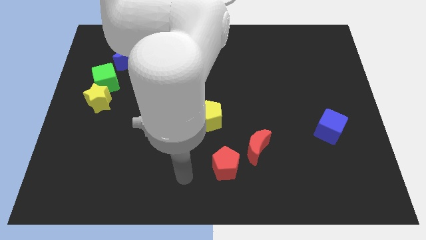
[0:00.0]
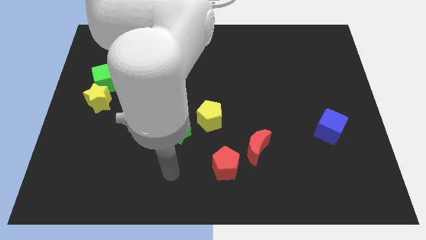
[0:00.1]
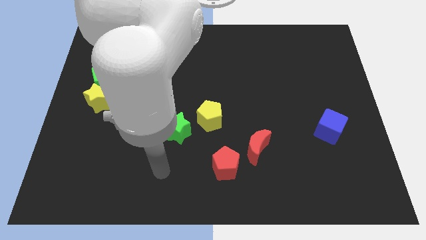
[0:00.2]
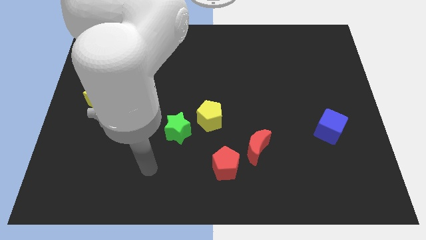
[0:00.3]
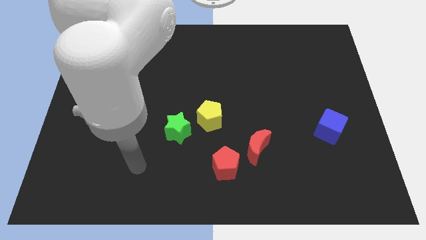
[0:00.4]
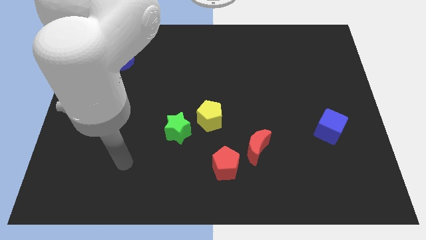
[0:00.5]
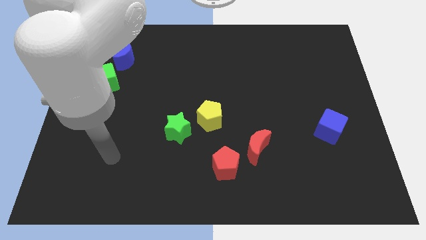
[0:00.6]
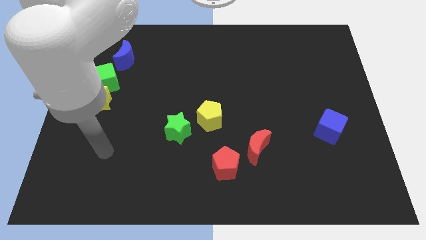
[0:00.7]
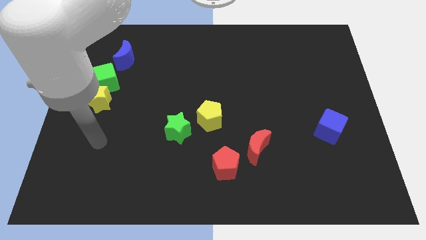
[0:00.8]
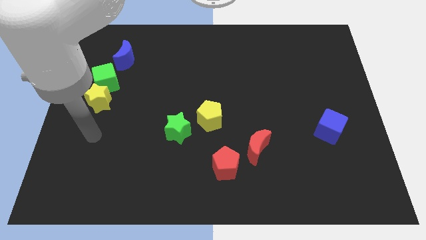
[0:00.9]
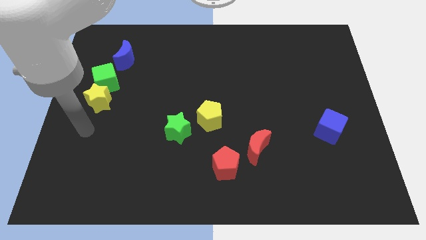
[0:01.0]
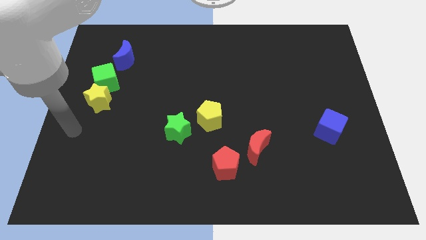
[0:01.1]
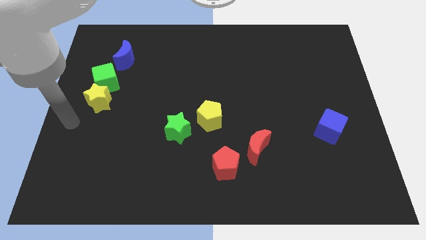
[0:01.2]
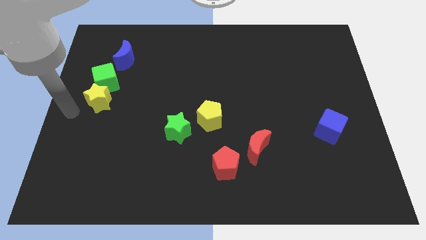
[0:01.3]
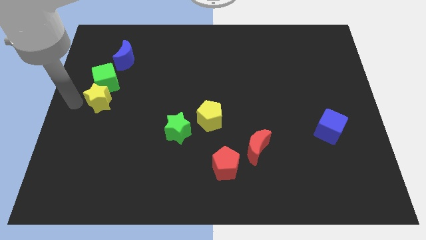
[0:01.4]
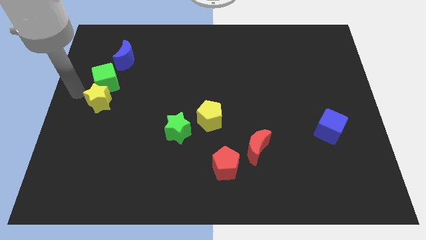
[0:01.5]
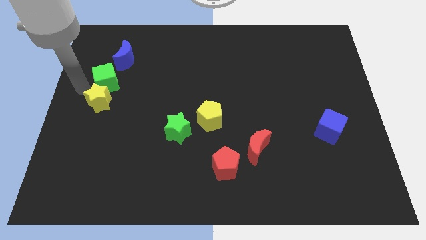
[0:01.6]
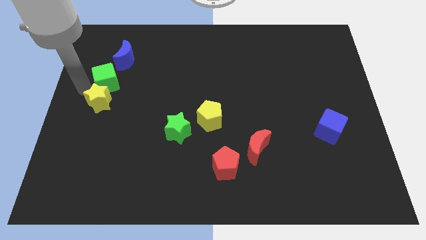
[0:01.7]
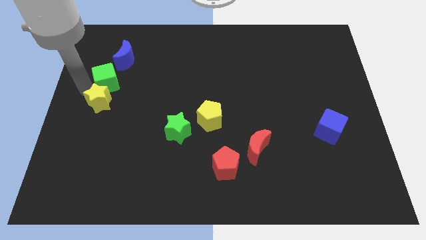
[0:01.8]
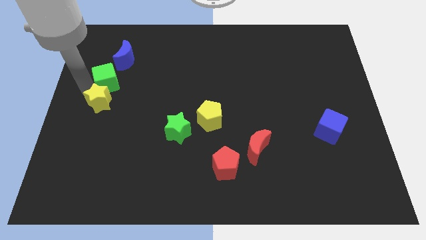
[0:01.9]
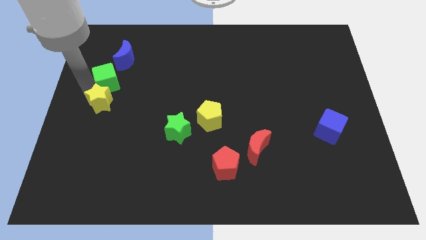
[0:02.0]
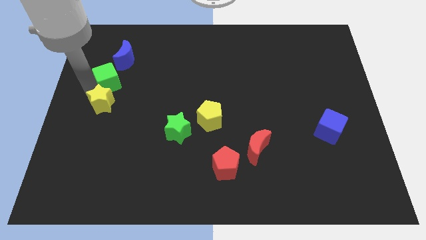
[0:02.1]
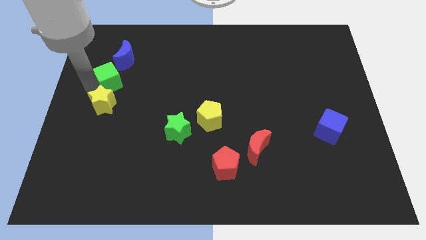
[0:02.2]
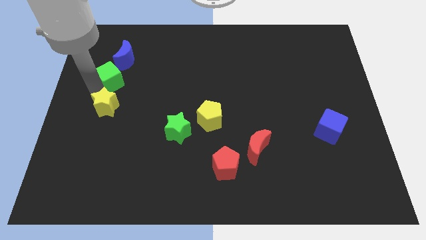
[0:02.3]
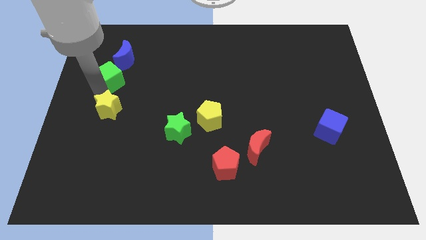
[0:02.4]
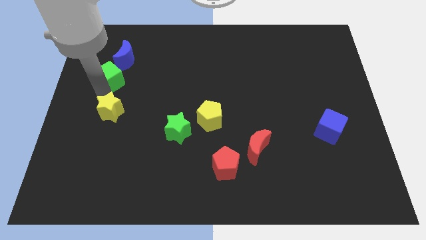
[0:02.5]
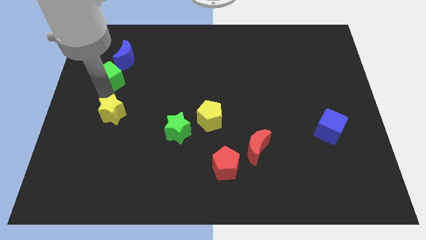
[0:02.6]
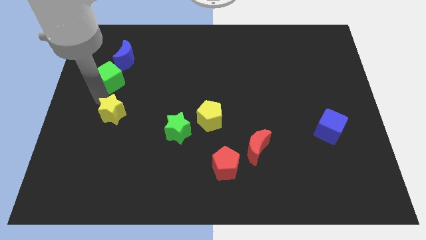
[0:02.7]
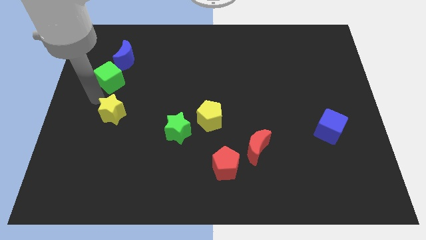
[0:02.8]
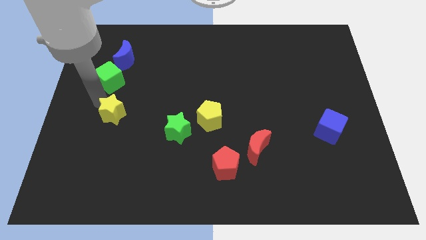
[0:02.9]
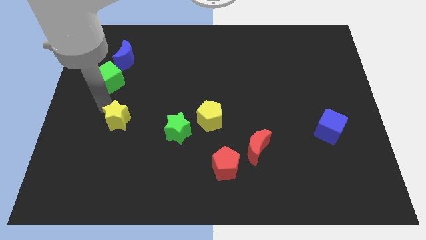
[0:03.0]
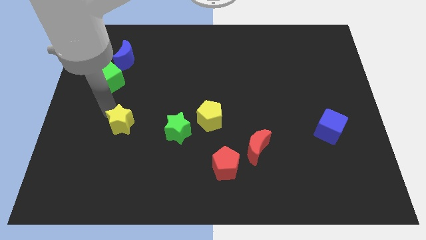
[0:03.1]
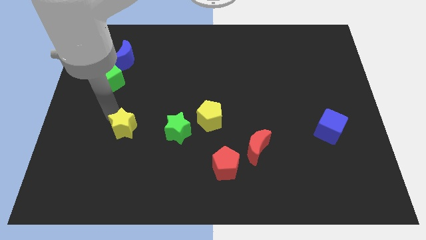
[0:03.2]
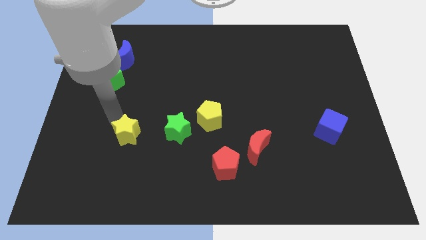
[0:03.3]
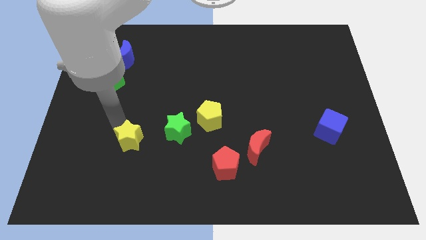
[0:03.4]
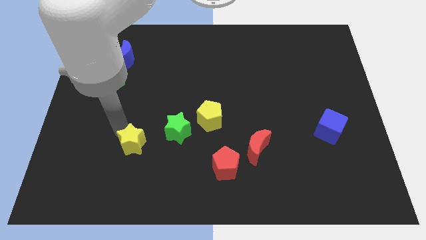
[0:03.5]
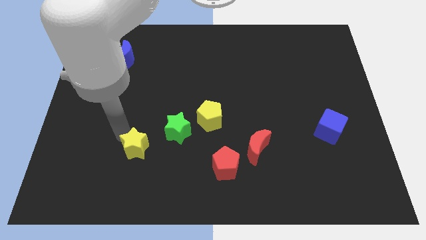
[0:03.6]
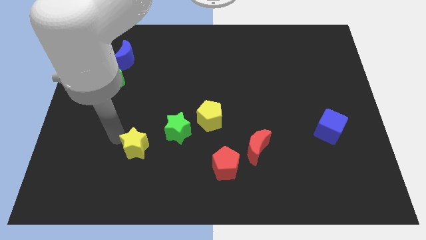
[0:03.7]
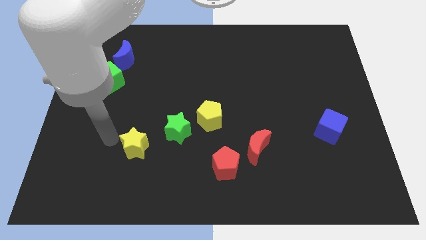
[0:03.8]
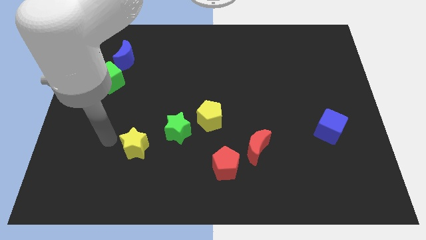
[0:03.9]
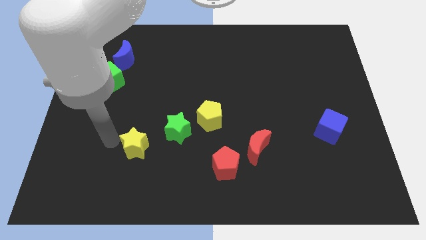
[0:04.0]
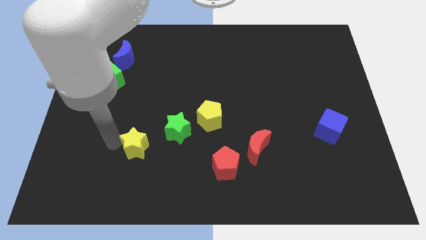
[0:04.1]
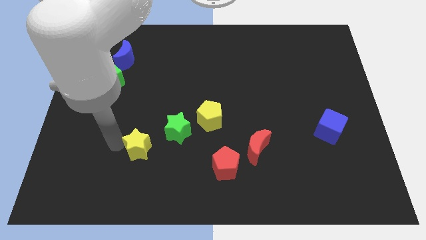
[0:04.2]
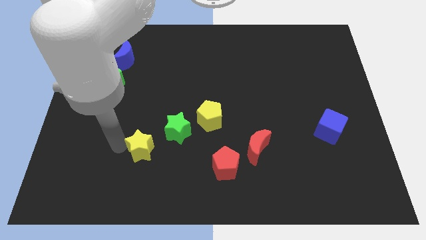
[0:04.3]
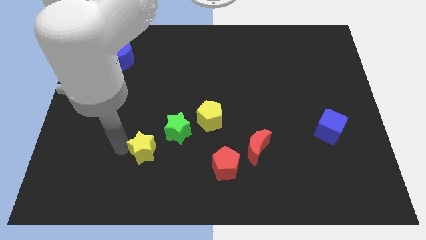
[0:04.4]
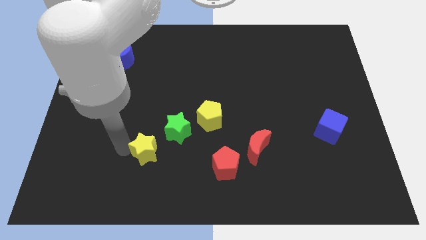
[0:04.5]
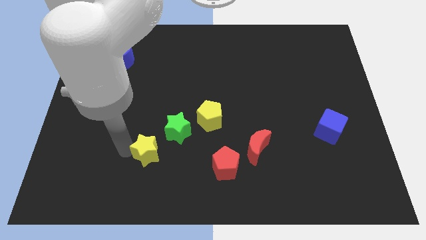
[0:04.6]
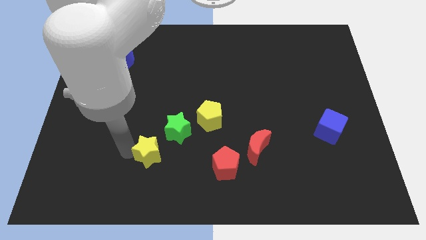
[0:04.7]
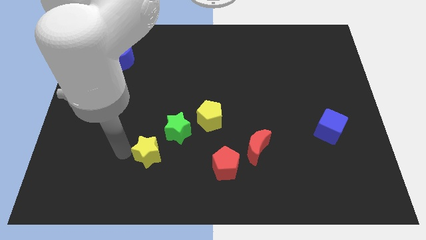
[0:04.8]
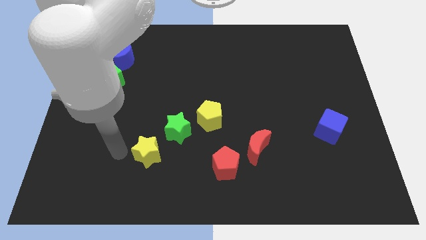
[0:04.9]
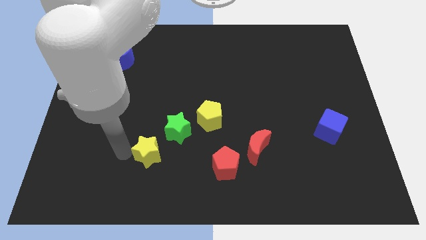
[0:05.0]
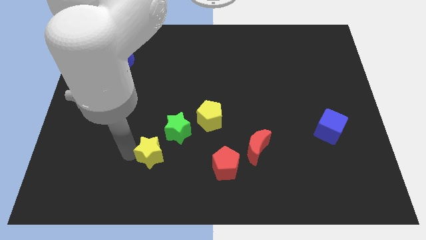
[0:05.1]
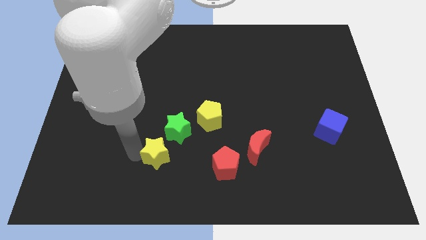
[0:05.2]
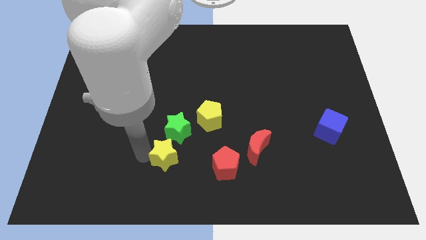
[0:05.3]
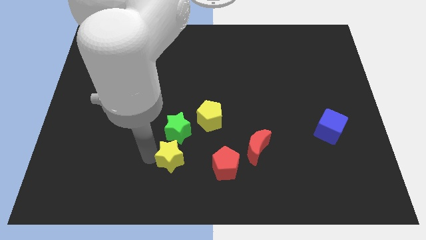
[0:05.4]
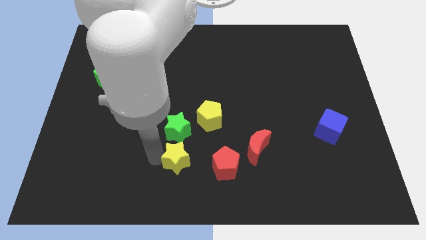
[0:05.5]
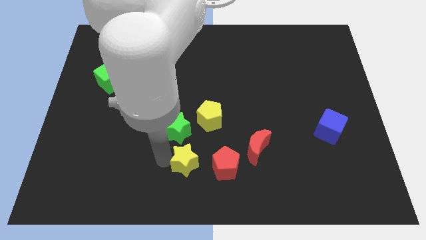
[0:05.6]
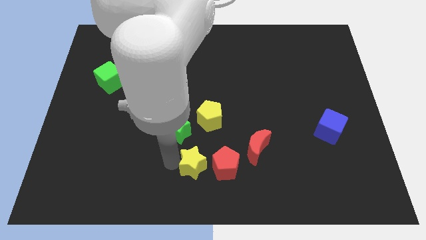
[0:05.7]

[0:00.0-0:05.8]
move the yellow star to the bottom side of the yellow pentagon

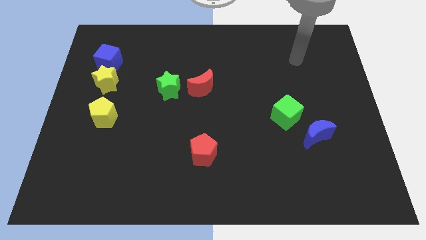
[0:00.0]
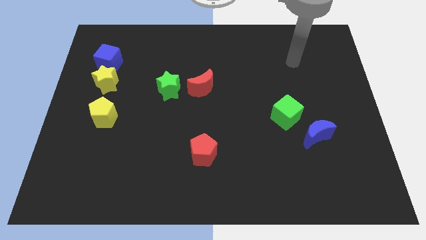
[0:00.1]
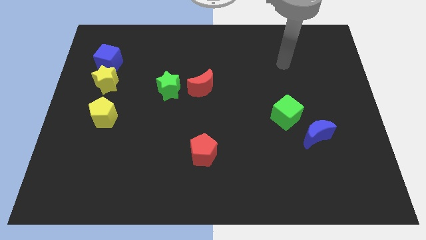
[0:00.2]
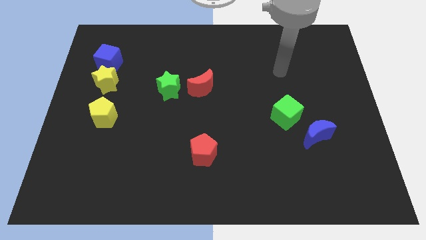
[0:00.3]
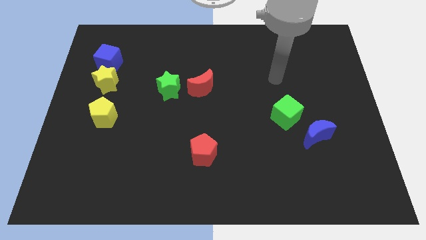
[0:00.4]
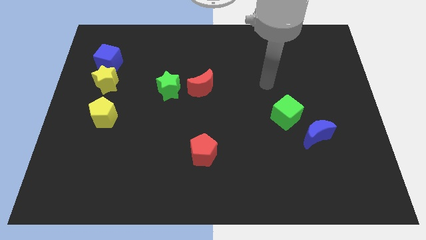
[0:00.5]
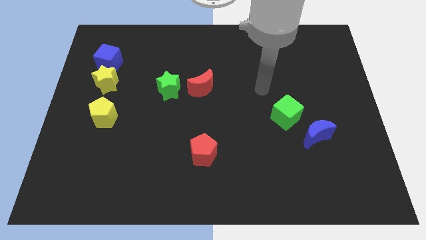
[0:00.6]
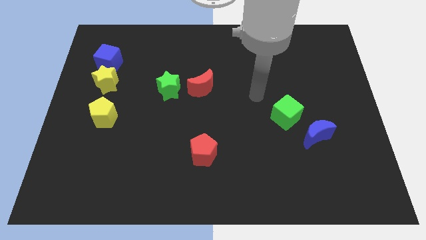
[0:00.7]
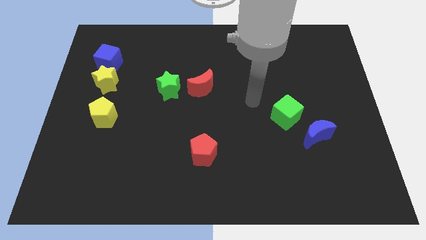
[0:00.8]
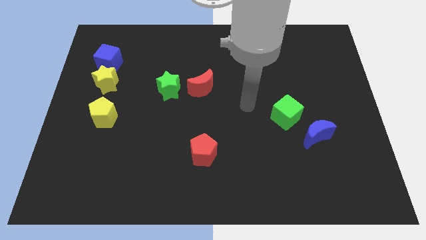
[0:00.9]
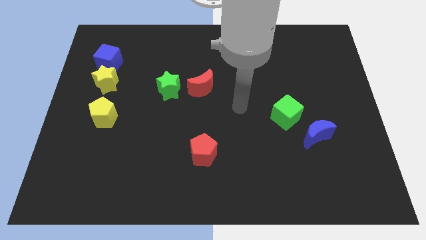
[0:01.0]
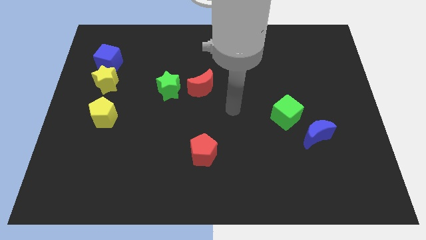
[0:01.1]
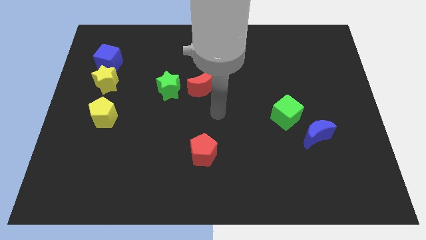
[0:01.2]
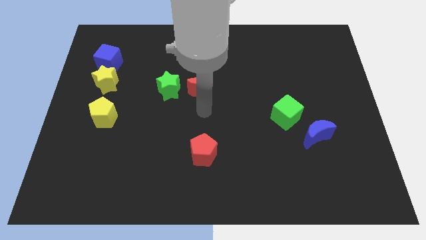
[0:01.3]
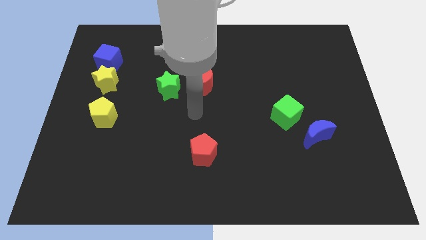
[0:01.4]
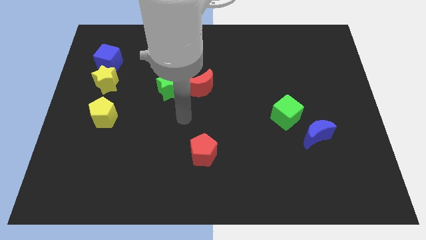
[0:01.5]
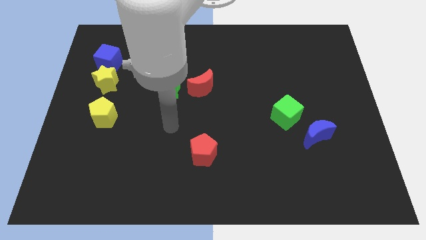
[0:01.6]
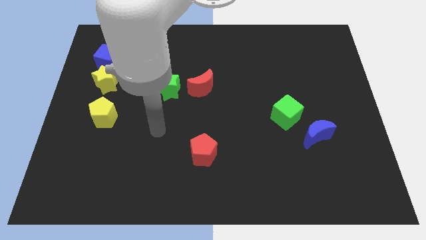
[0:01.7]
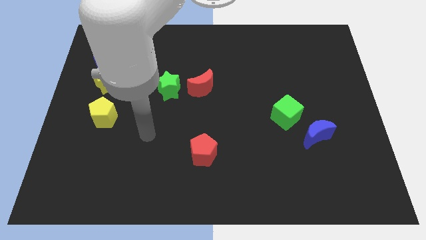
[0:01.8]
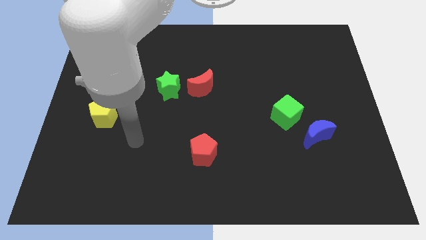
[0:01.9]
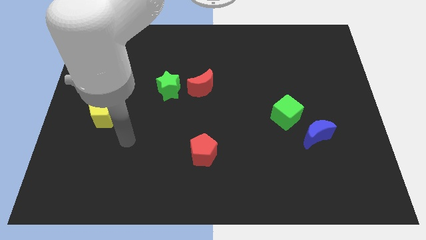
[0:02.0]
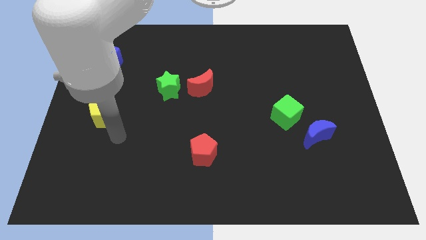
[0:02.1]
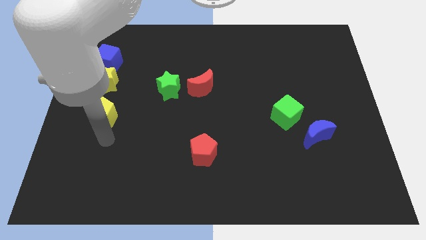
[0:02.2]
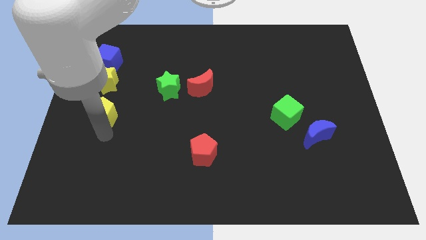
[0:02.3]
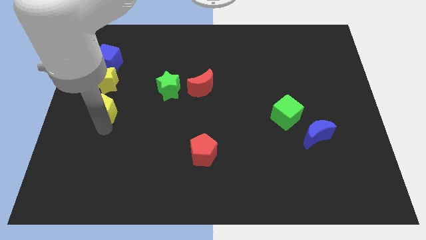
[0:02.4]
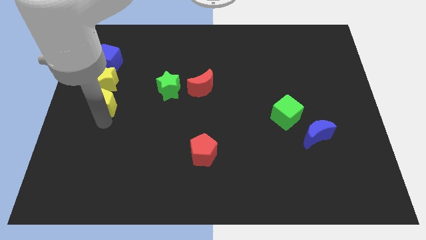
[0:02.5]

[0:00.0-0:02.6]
slide the yellow pentagon below the blue cube
